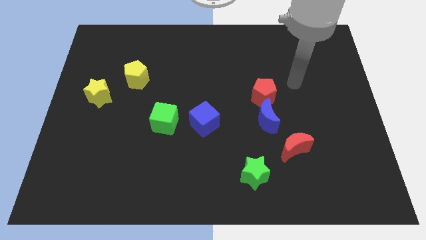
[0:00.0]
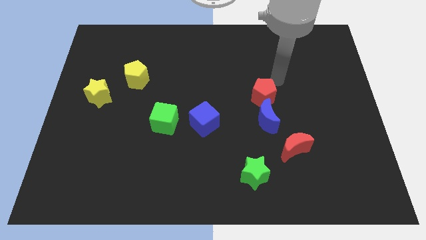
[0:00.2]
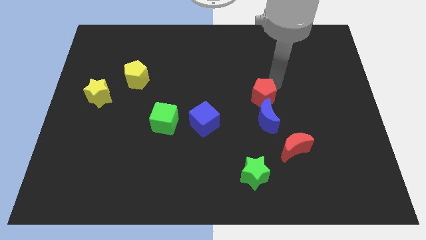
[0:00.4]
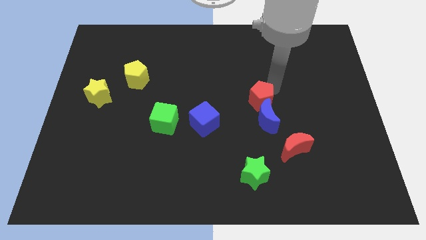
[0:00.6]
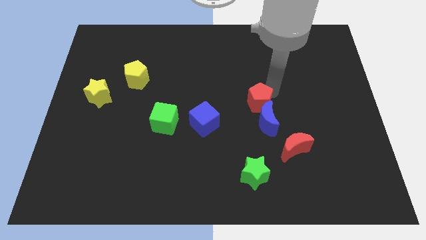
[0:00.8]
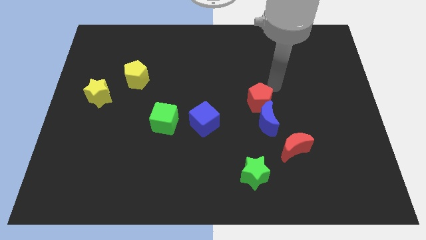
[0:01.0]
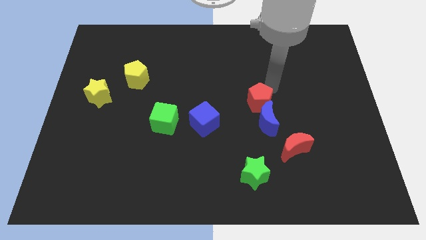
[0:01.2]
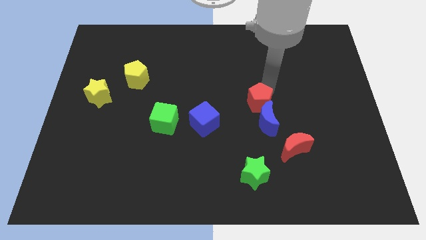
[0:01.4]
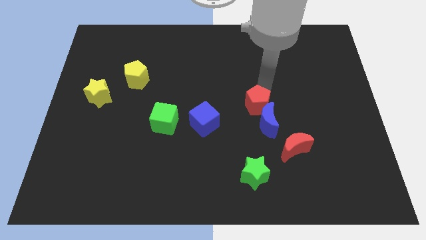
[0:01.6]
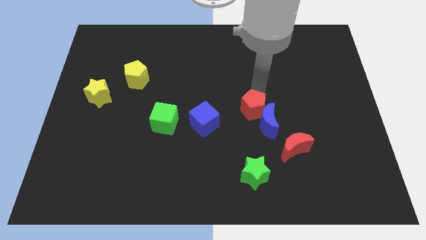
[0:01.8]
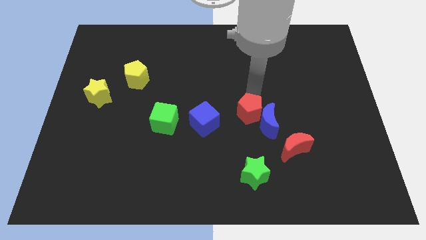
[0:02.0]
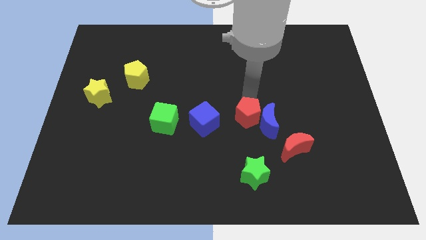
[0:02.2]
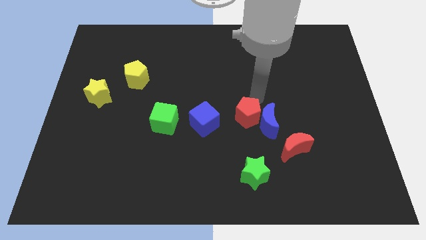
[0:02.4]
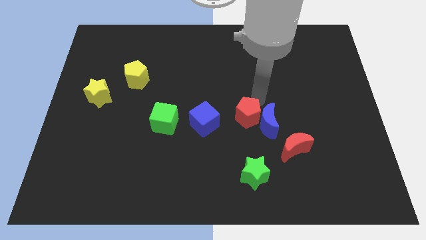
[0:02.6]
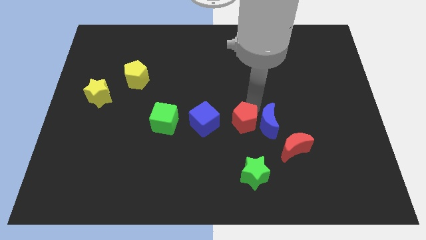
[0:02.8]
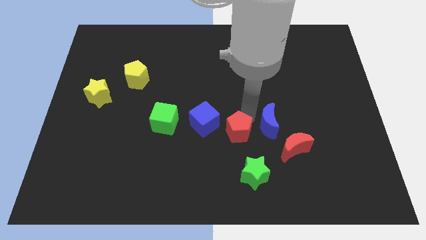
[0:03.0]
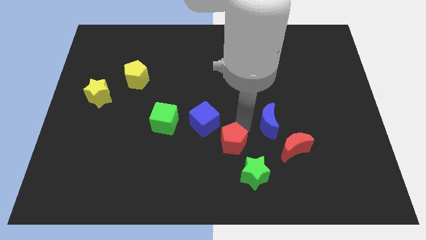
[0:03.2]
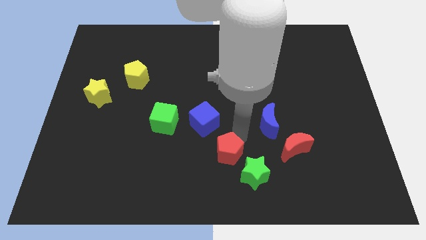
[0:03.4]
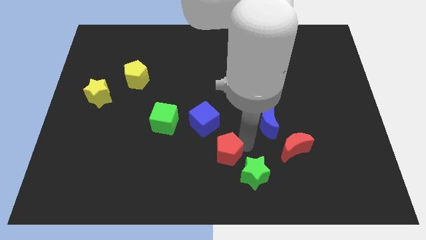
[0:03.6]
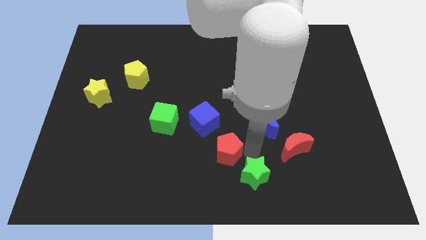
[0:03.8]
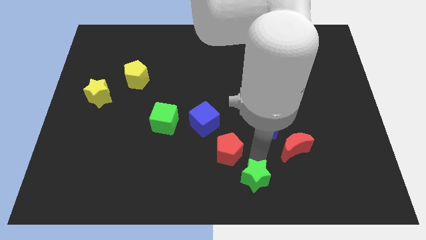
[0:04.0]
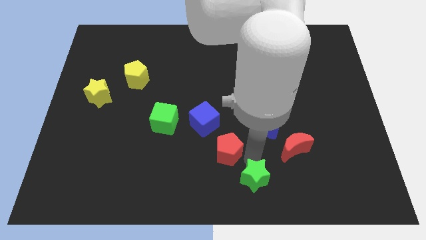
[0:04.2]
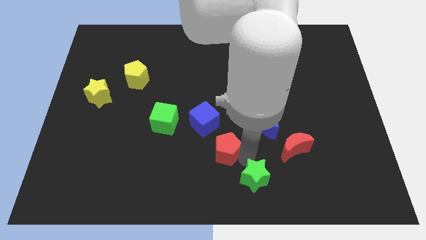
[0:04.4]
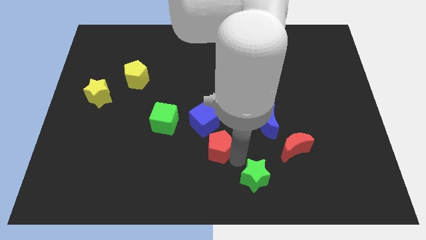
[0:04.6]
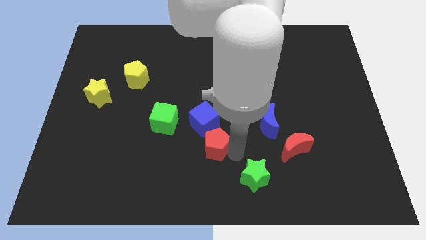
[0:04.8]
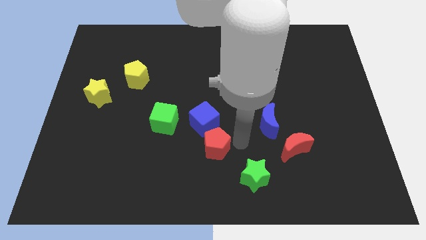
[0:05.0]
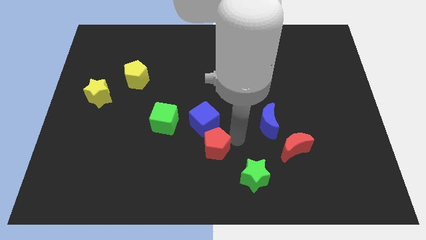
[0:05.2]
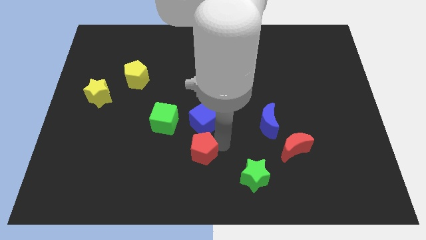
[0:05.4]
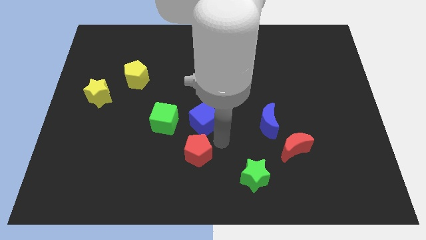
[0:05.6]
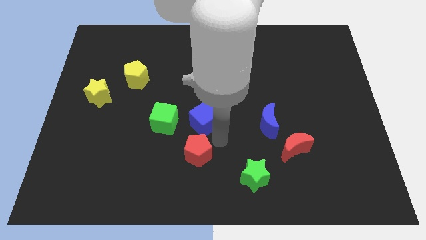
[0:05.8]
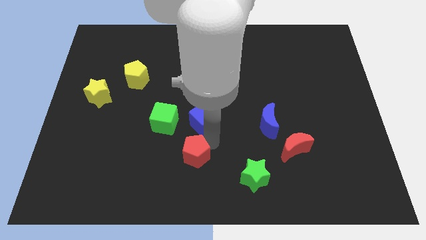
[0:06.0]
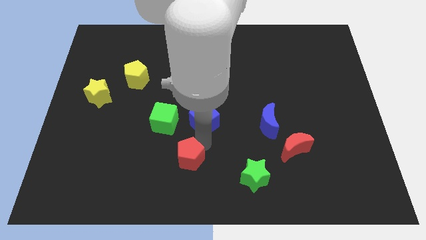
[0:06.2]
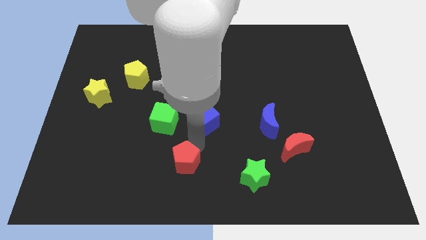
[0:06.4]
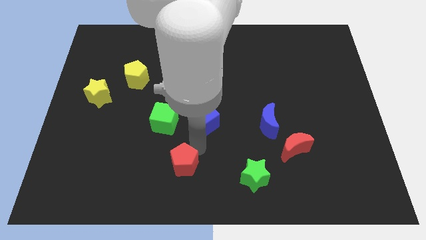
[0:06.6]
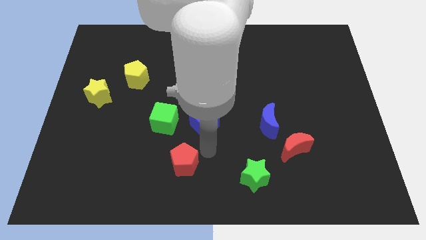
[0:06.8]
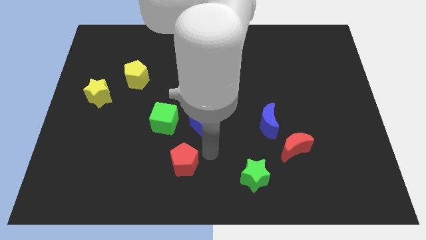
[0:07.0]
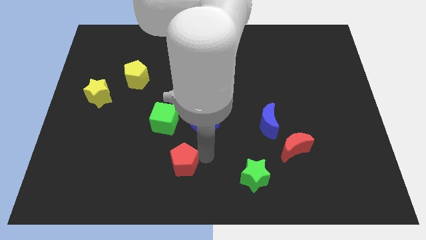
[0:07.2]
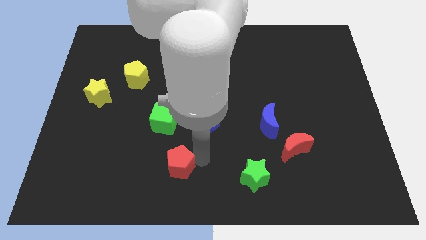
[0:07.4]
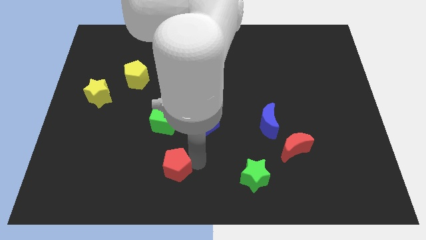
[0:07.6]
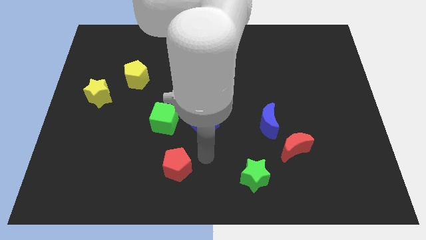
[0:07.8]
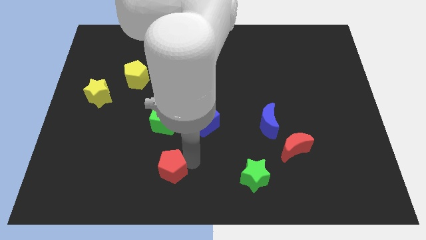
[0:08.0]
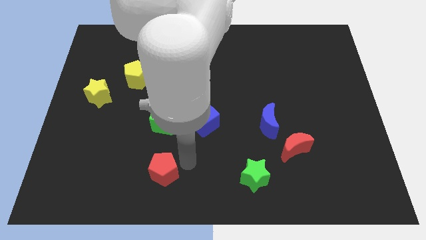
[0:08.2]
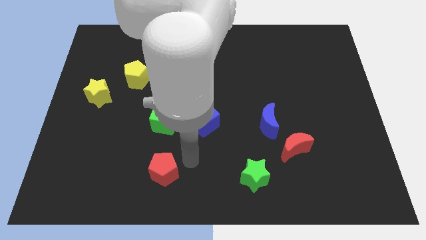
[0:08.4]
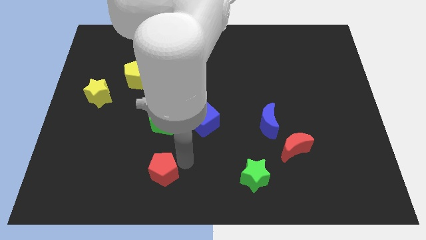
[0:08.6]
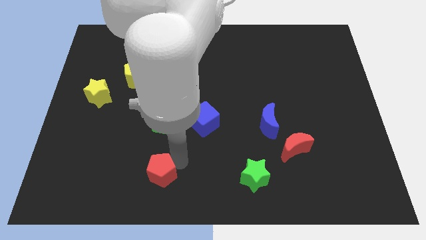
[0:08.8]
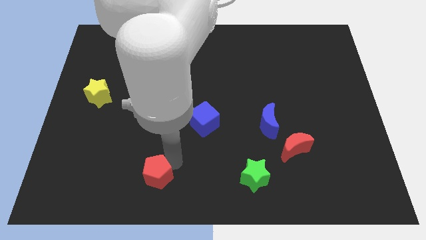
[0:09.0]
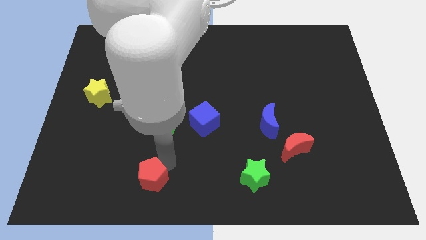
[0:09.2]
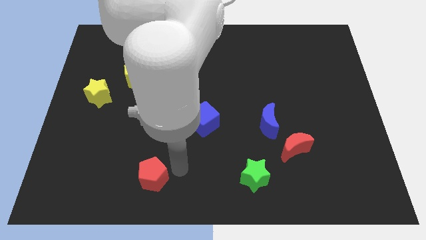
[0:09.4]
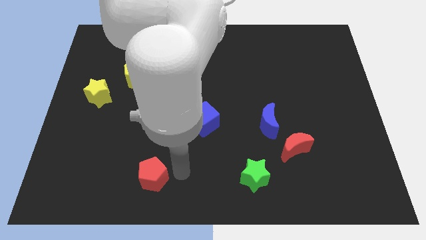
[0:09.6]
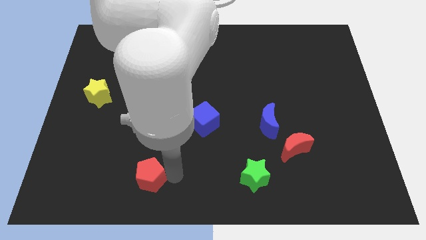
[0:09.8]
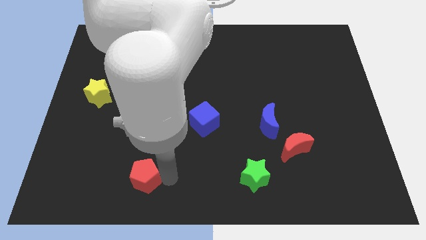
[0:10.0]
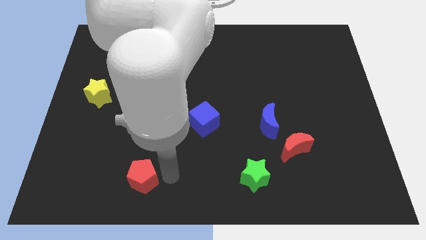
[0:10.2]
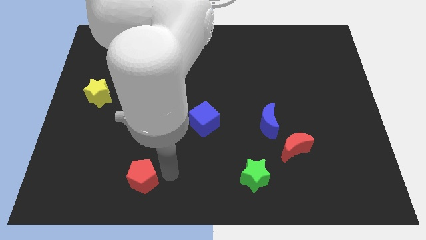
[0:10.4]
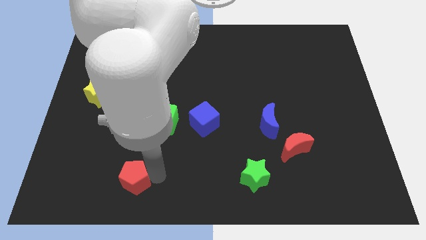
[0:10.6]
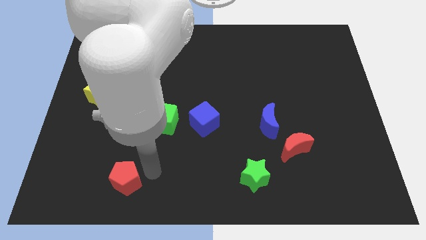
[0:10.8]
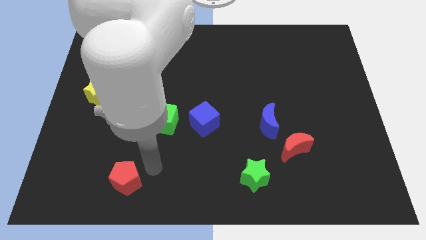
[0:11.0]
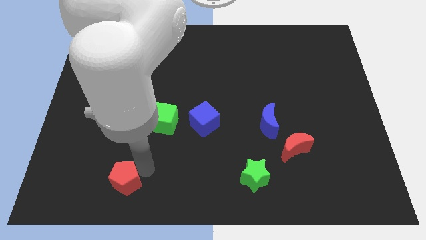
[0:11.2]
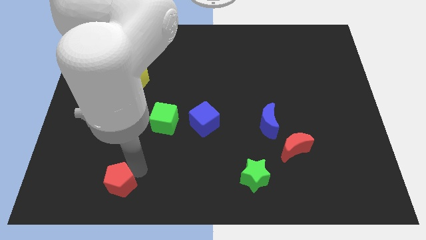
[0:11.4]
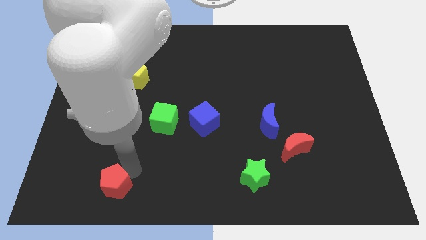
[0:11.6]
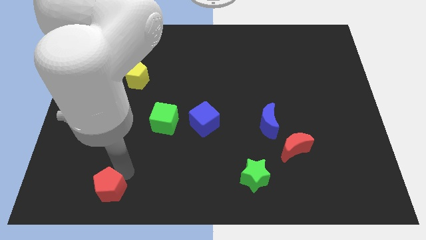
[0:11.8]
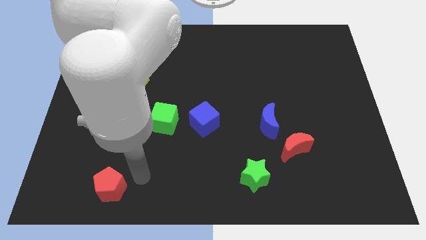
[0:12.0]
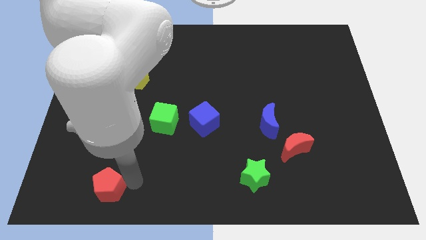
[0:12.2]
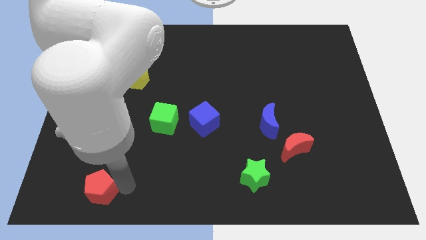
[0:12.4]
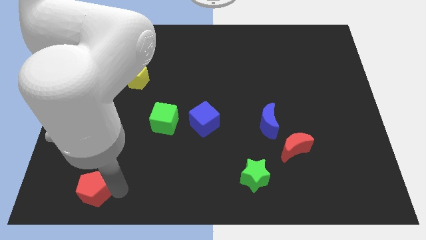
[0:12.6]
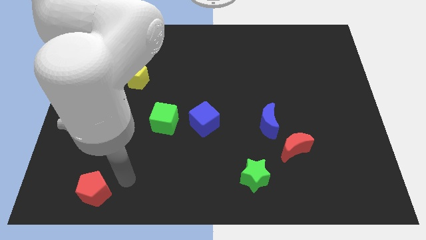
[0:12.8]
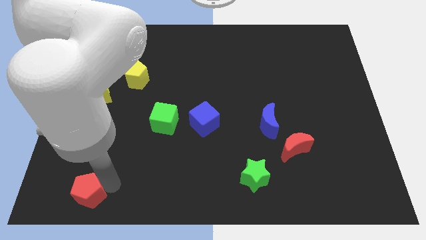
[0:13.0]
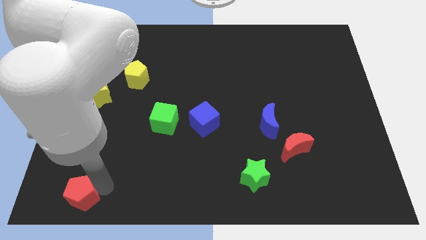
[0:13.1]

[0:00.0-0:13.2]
slide the red pentagon to the bottom left
